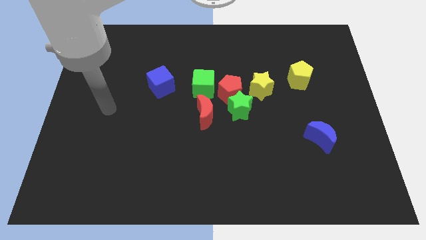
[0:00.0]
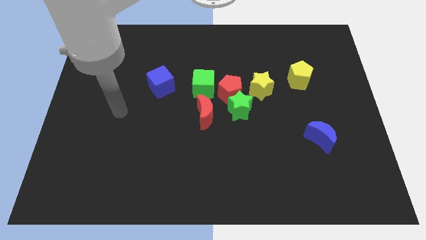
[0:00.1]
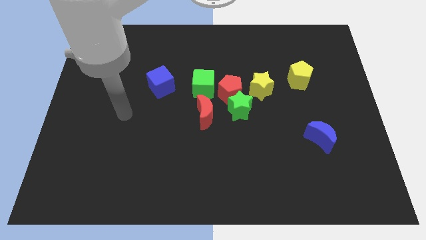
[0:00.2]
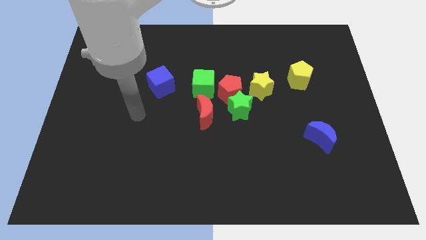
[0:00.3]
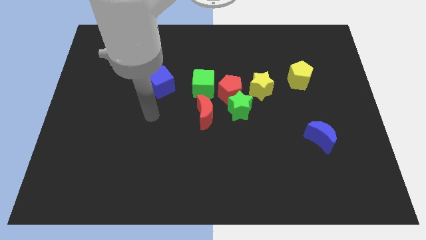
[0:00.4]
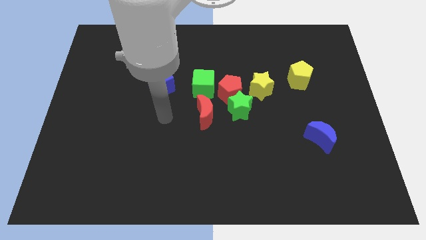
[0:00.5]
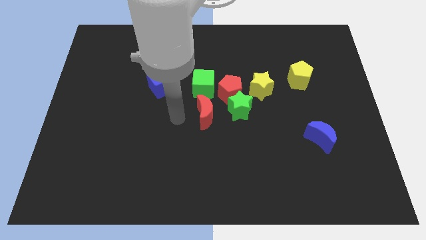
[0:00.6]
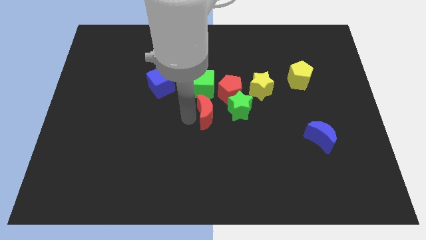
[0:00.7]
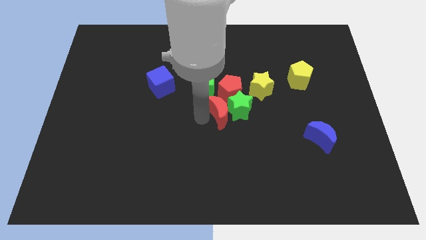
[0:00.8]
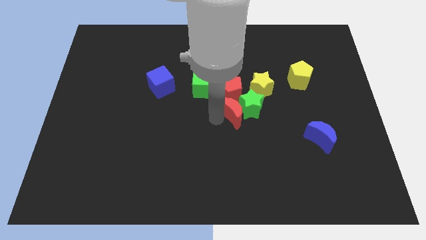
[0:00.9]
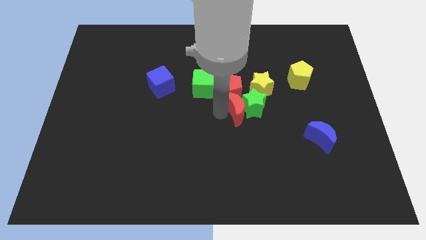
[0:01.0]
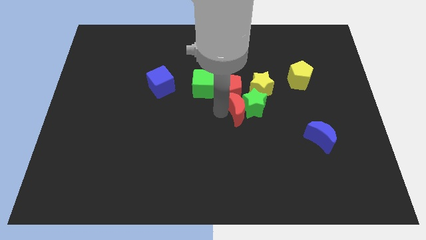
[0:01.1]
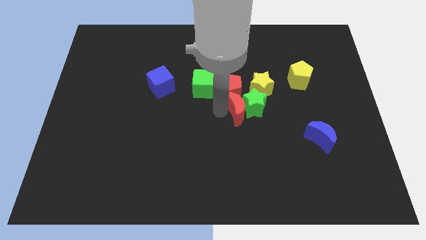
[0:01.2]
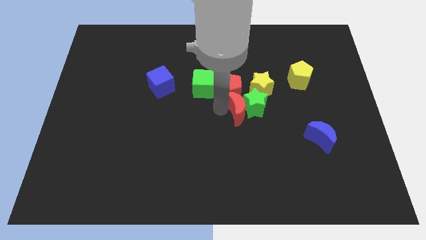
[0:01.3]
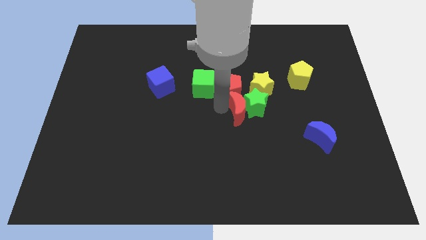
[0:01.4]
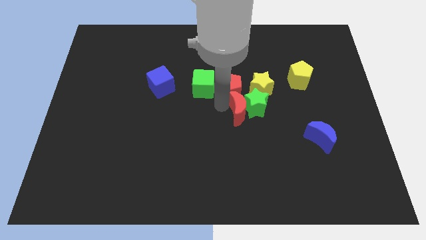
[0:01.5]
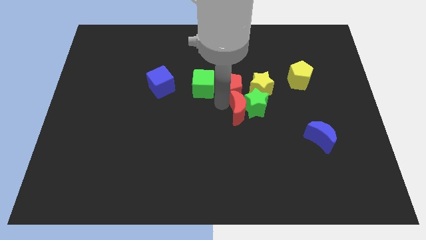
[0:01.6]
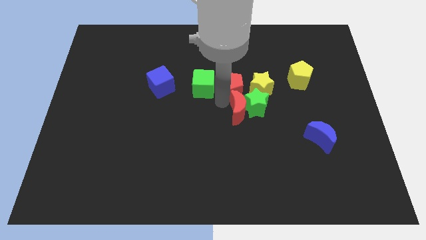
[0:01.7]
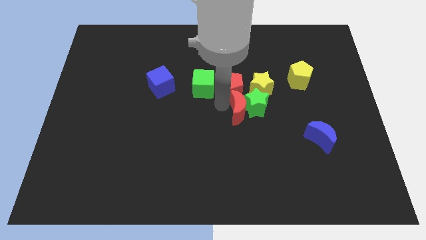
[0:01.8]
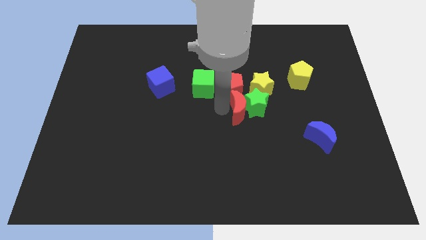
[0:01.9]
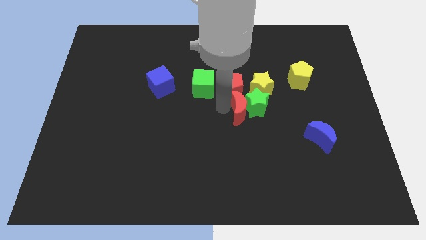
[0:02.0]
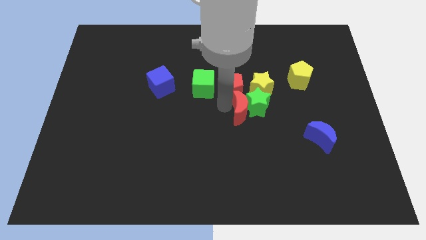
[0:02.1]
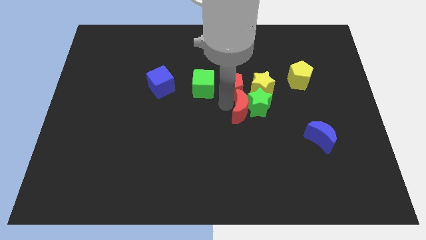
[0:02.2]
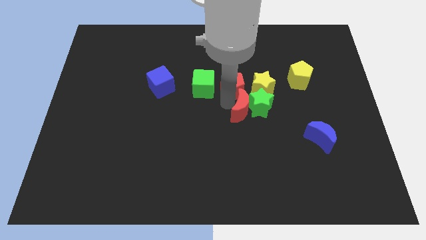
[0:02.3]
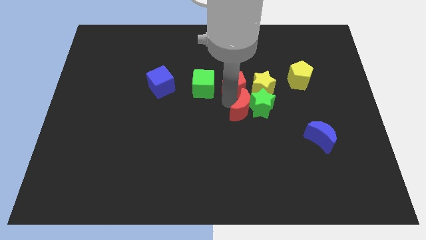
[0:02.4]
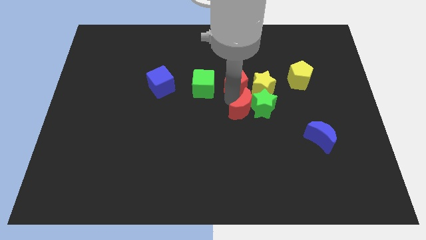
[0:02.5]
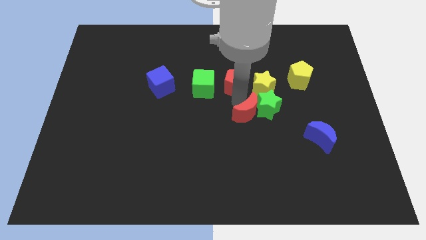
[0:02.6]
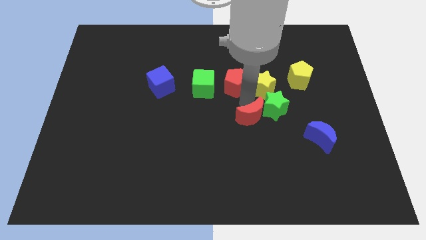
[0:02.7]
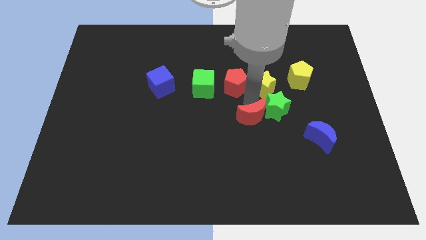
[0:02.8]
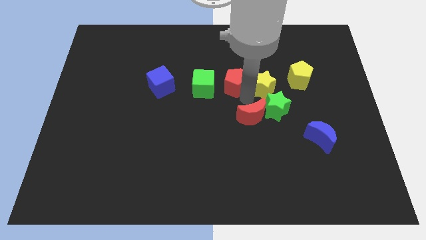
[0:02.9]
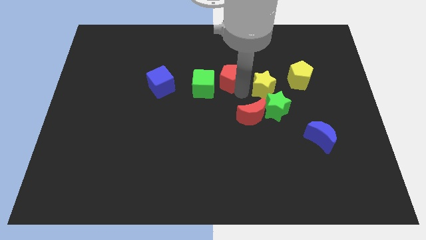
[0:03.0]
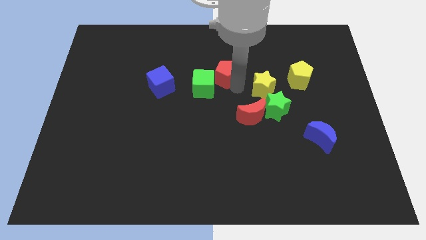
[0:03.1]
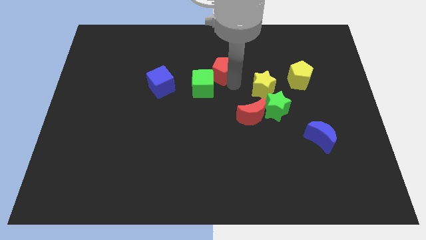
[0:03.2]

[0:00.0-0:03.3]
pull the red pentagon apart from the clump

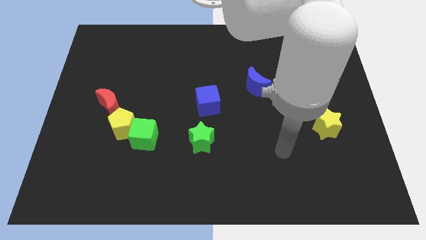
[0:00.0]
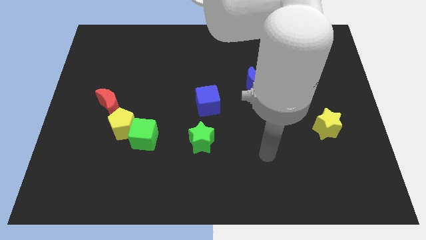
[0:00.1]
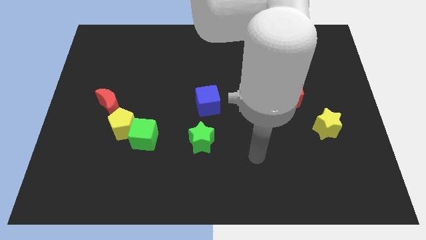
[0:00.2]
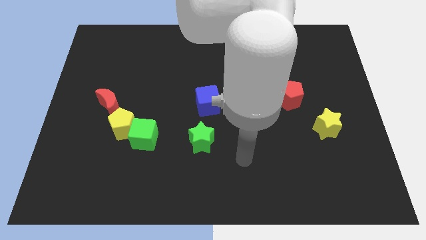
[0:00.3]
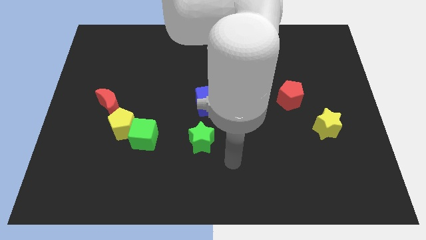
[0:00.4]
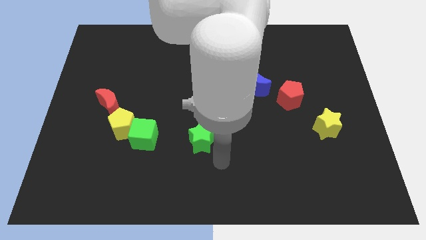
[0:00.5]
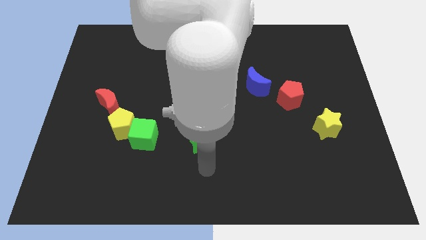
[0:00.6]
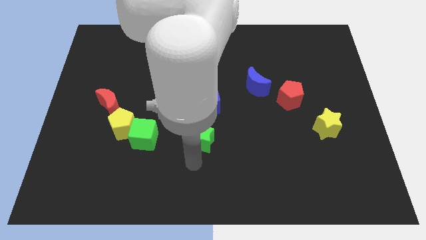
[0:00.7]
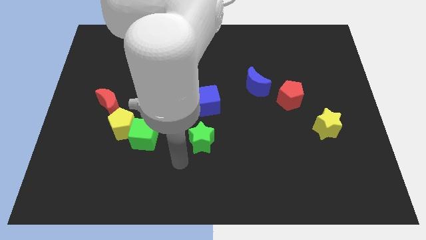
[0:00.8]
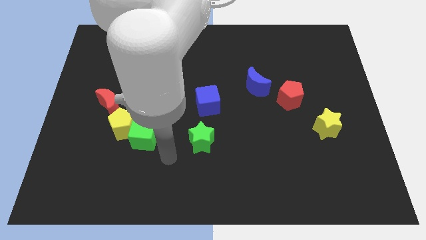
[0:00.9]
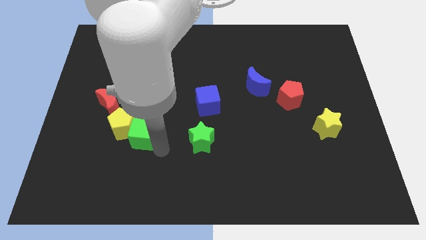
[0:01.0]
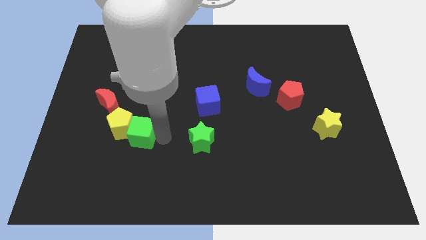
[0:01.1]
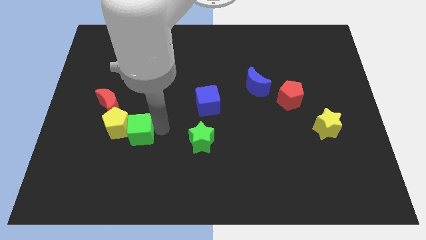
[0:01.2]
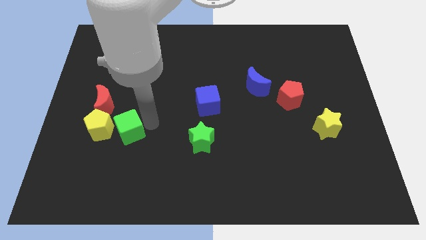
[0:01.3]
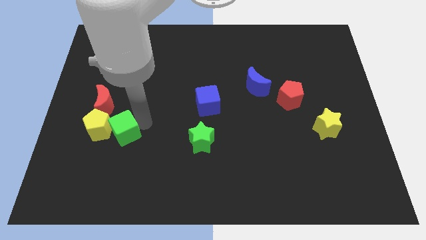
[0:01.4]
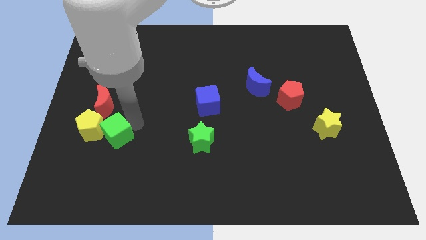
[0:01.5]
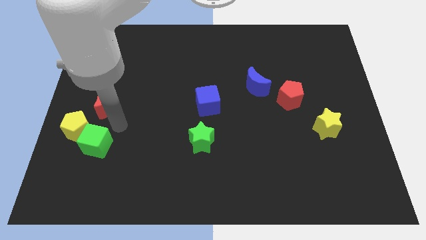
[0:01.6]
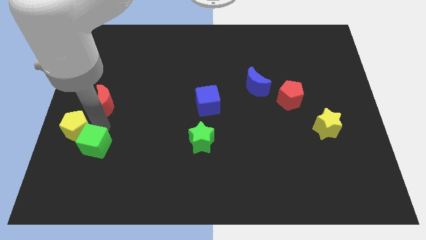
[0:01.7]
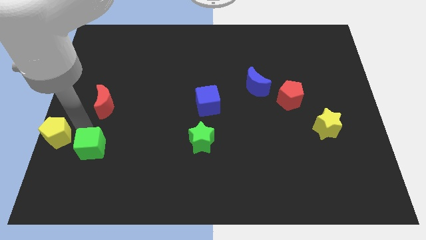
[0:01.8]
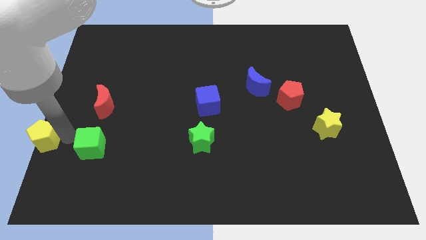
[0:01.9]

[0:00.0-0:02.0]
pull the green cube apart from the yellow pentagon

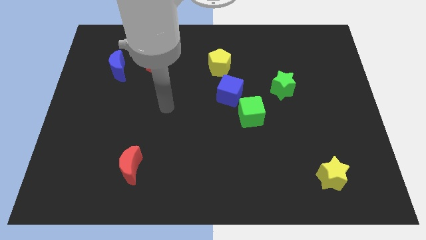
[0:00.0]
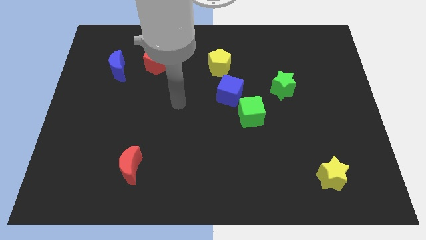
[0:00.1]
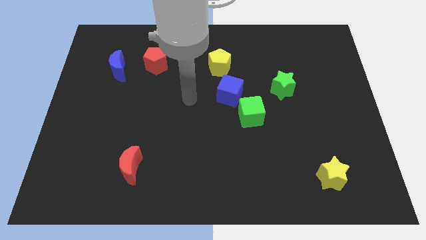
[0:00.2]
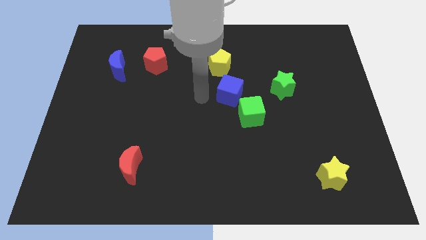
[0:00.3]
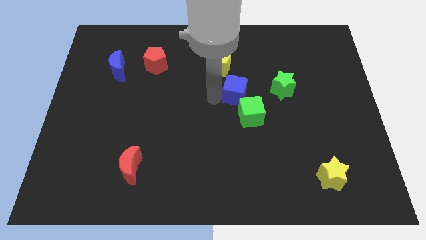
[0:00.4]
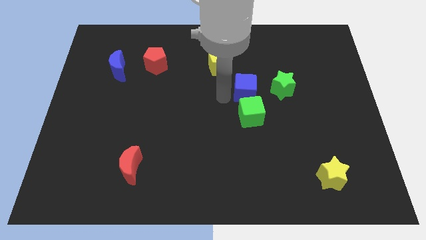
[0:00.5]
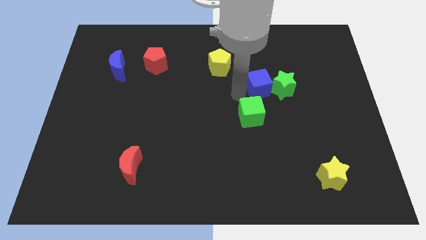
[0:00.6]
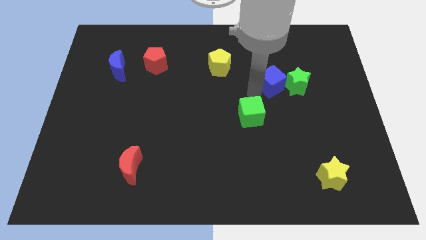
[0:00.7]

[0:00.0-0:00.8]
move the green cube away from the blue cube

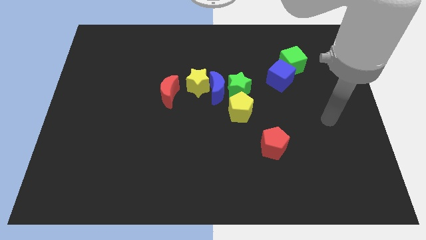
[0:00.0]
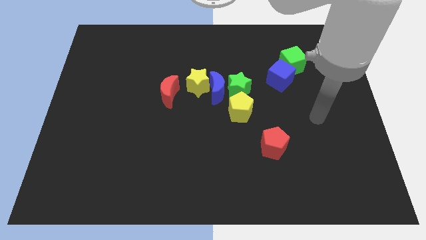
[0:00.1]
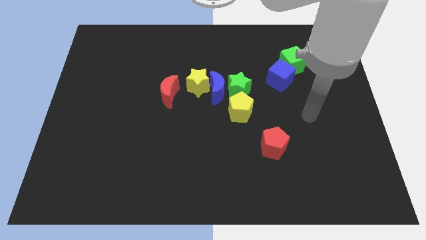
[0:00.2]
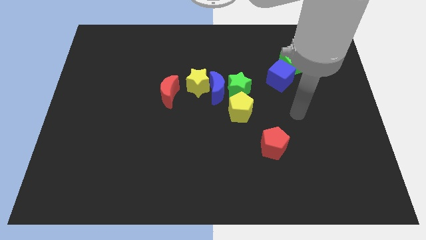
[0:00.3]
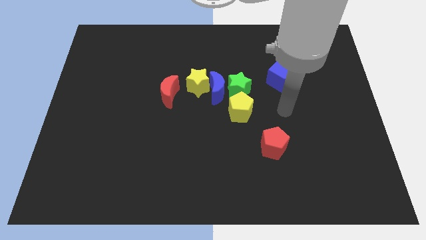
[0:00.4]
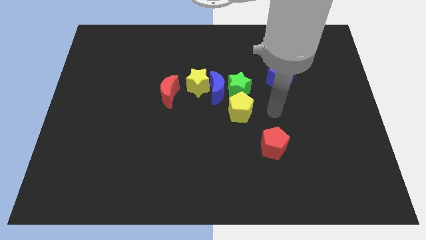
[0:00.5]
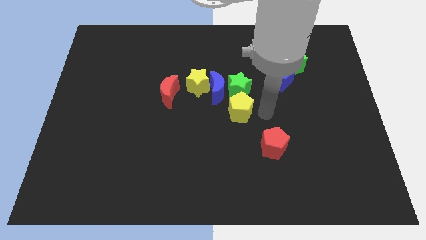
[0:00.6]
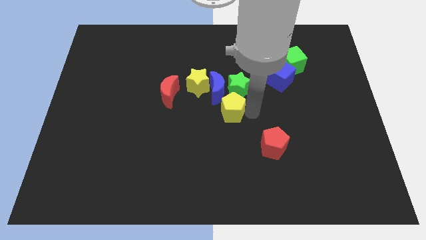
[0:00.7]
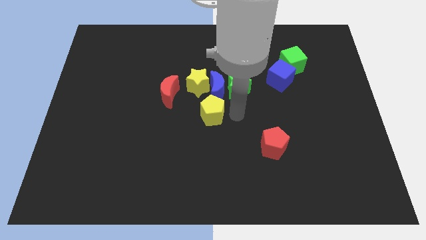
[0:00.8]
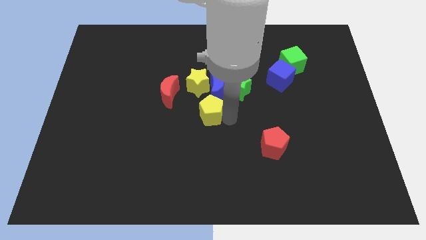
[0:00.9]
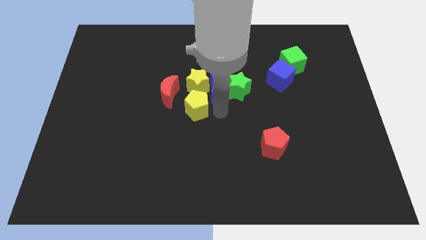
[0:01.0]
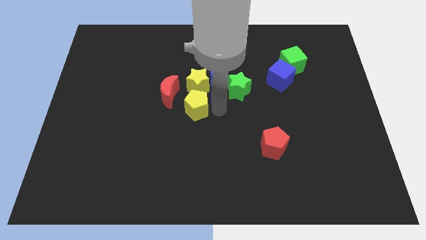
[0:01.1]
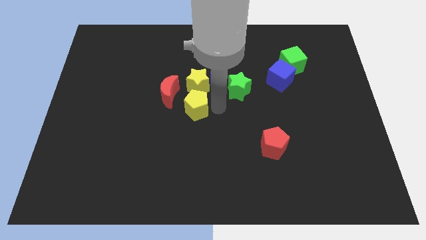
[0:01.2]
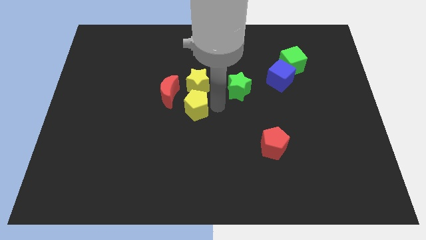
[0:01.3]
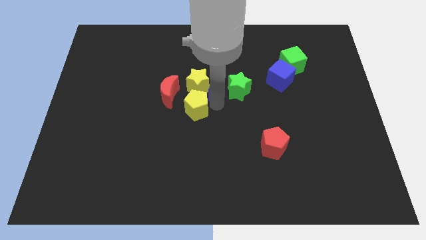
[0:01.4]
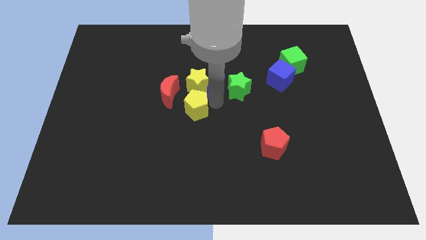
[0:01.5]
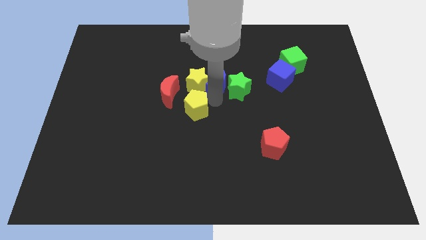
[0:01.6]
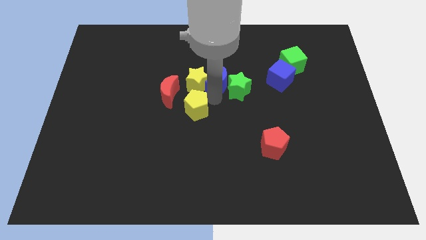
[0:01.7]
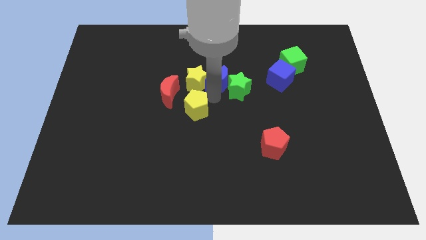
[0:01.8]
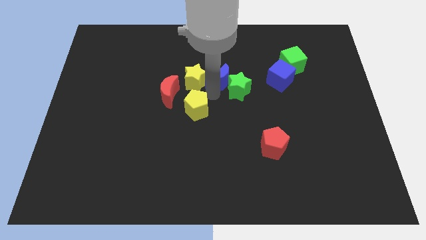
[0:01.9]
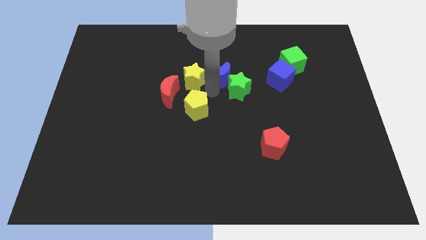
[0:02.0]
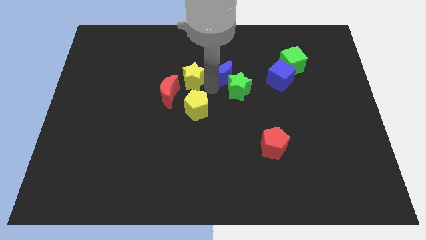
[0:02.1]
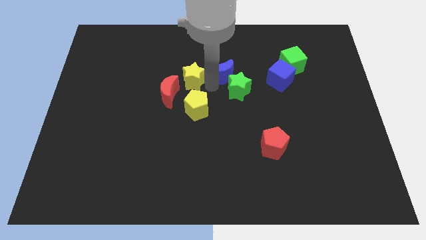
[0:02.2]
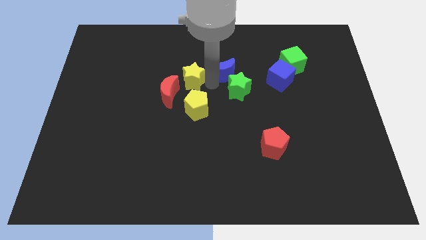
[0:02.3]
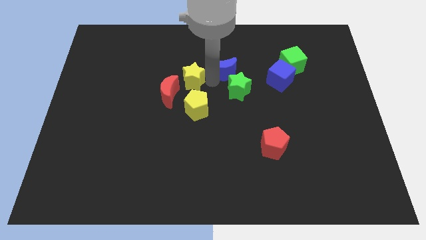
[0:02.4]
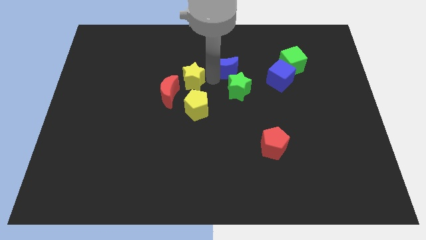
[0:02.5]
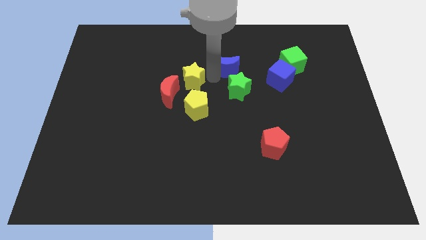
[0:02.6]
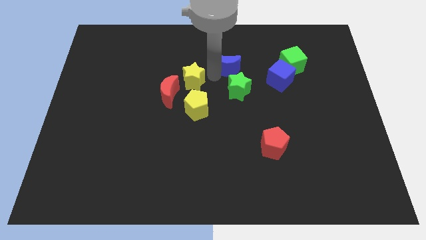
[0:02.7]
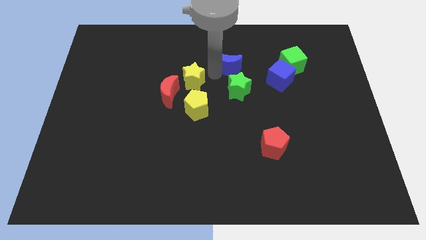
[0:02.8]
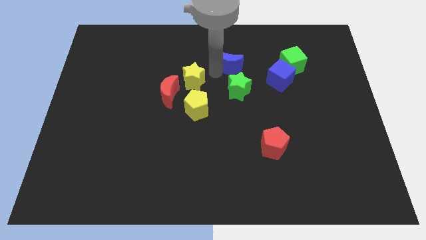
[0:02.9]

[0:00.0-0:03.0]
move the blue moon away from the clump

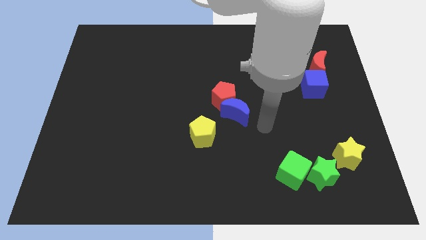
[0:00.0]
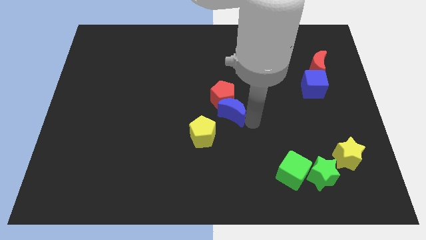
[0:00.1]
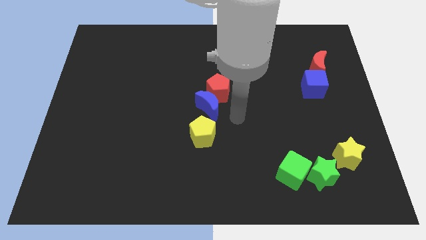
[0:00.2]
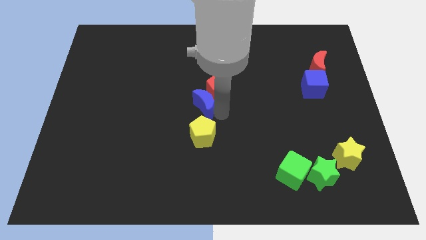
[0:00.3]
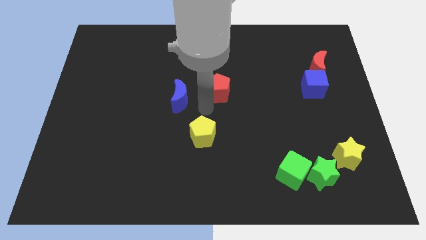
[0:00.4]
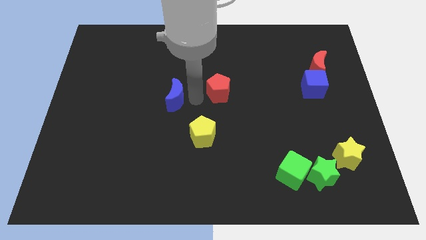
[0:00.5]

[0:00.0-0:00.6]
move the red pentagon away from the blue moon
